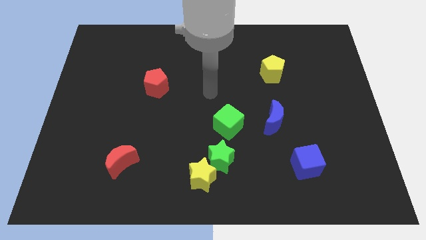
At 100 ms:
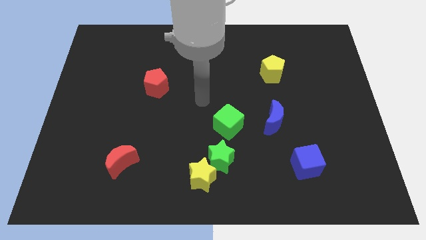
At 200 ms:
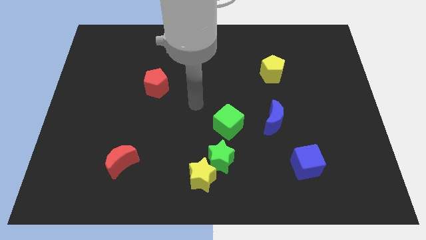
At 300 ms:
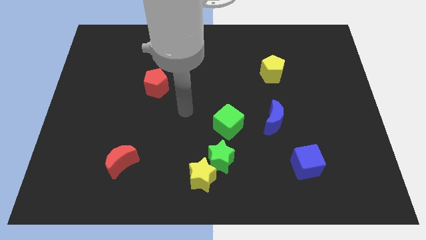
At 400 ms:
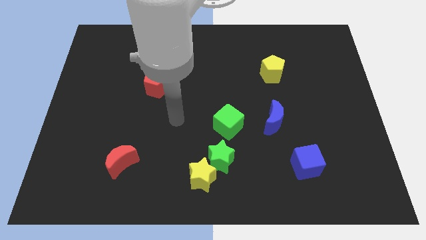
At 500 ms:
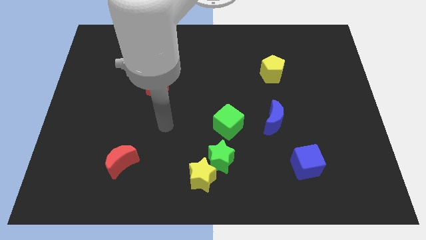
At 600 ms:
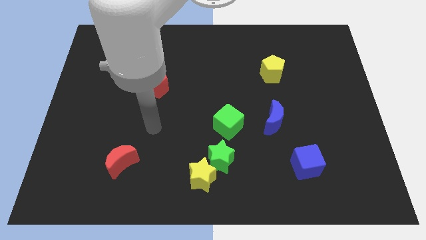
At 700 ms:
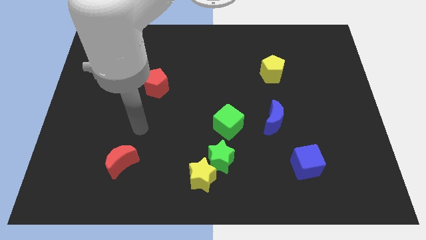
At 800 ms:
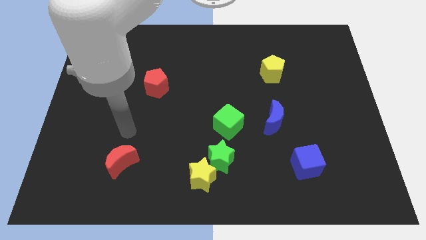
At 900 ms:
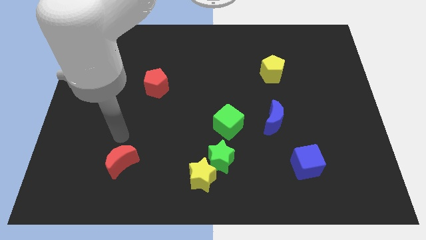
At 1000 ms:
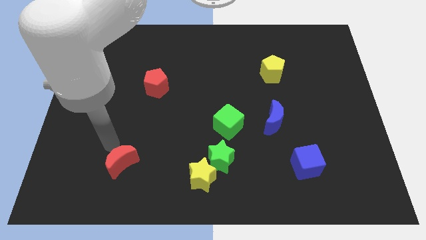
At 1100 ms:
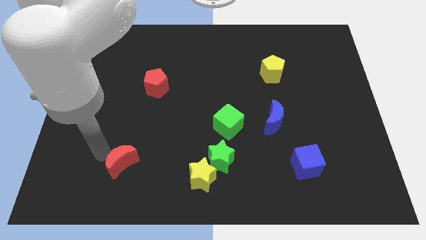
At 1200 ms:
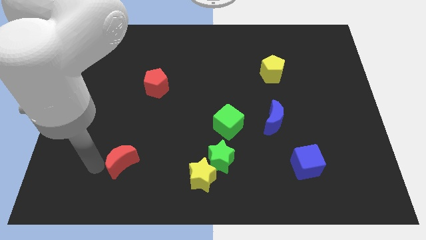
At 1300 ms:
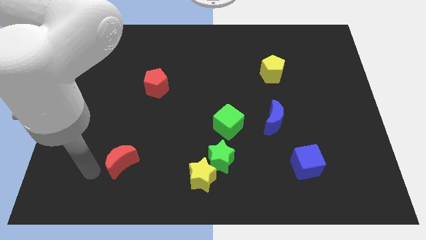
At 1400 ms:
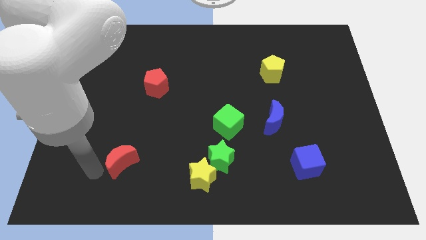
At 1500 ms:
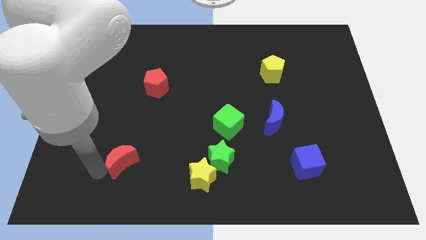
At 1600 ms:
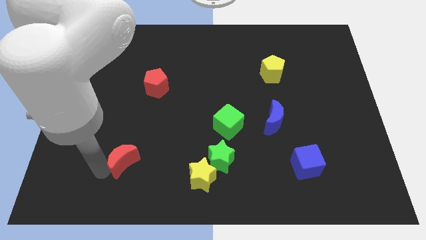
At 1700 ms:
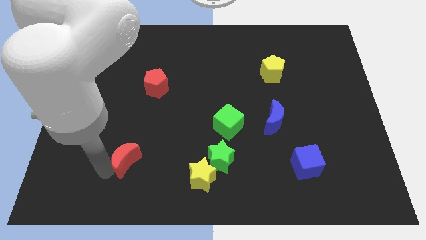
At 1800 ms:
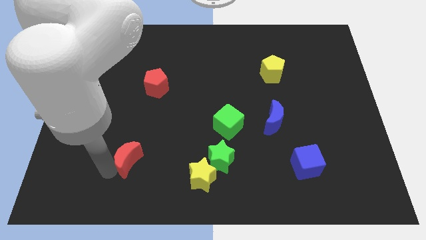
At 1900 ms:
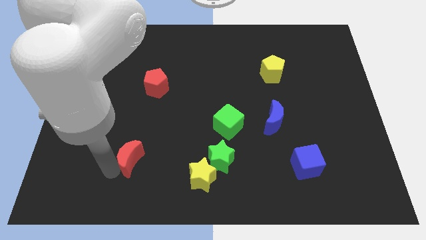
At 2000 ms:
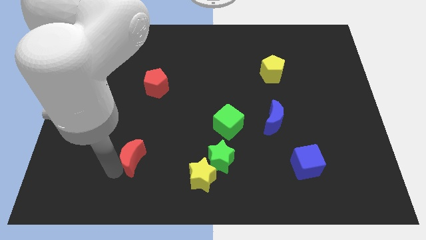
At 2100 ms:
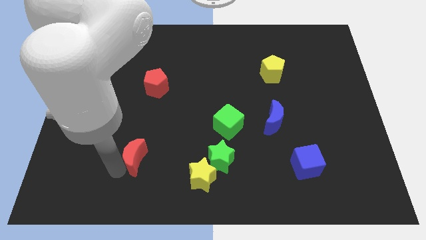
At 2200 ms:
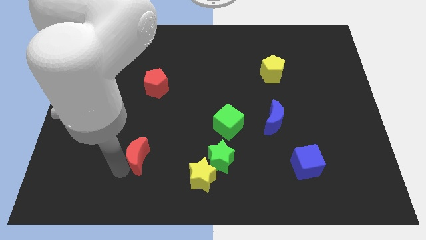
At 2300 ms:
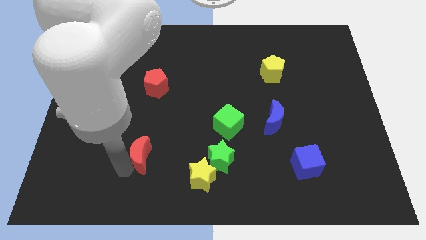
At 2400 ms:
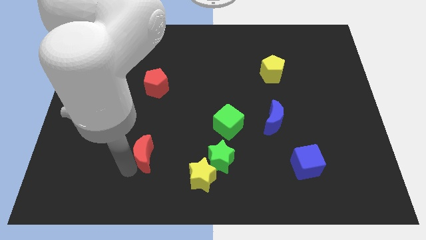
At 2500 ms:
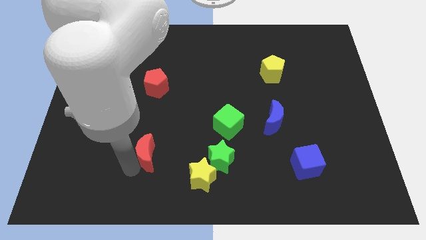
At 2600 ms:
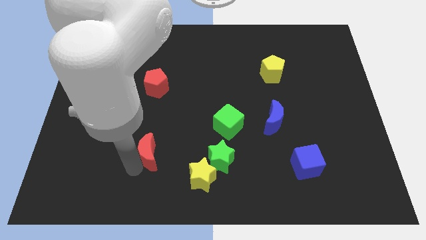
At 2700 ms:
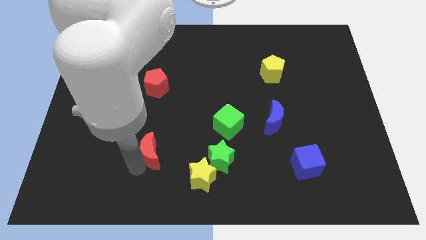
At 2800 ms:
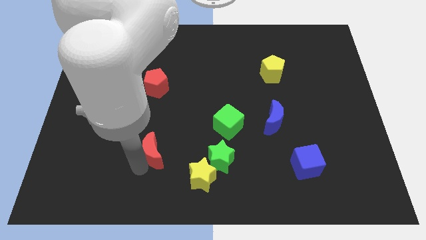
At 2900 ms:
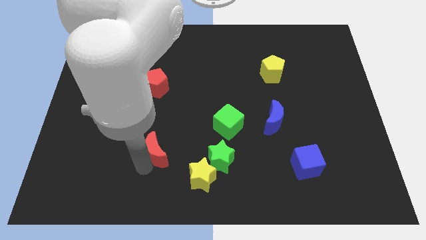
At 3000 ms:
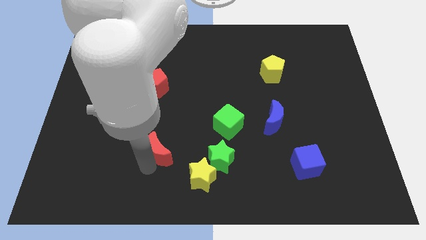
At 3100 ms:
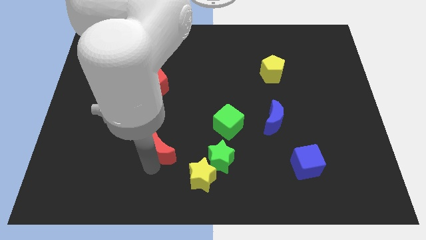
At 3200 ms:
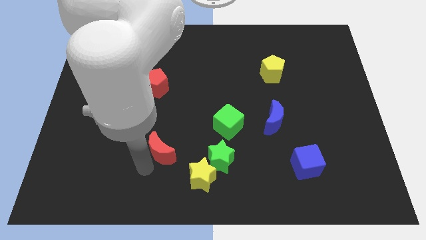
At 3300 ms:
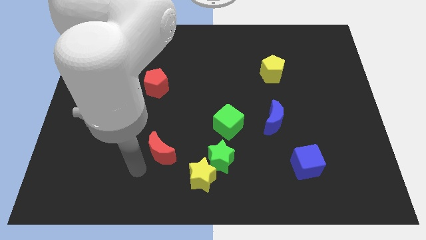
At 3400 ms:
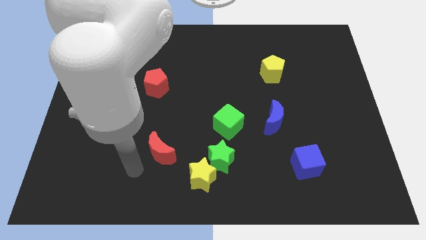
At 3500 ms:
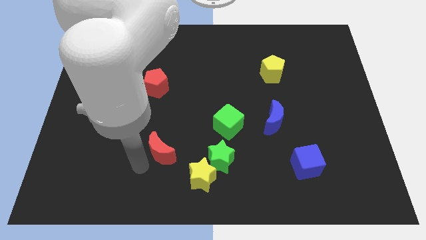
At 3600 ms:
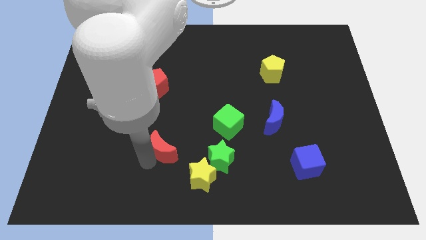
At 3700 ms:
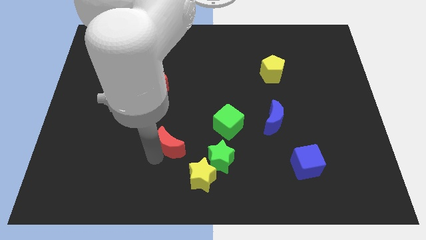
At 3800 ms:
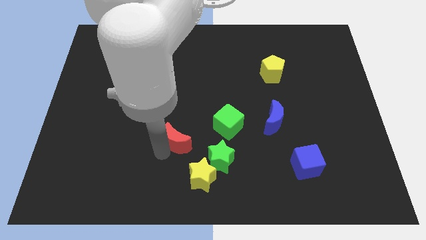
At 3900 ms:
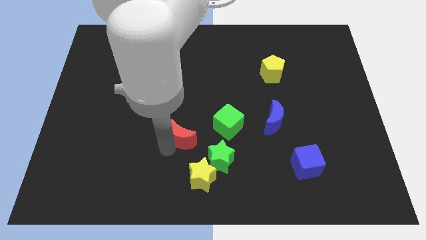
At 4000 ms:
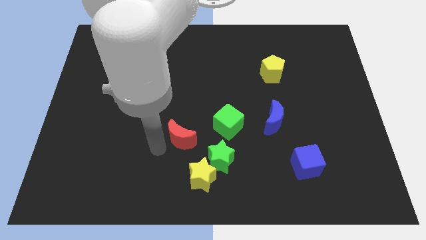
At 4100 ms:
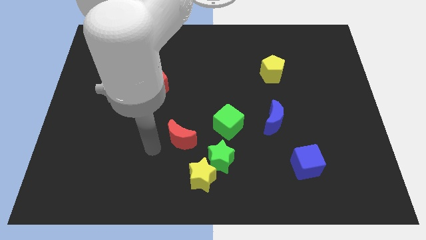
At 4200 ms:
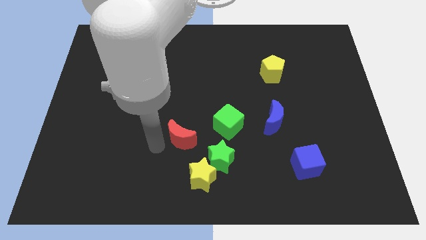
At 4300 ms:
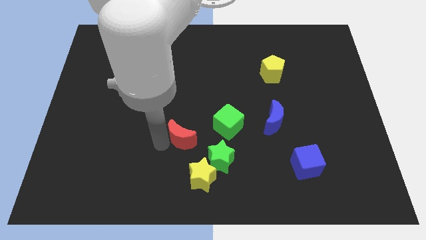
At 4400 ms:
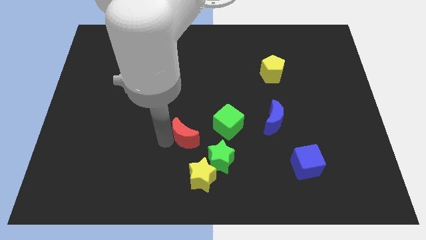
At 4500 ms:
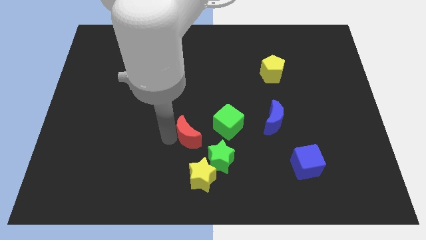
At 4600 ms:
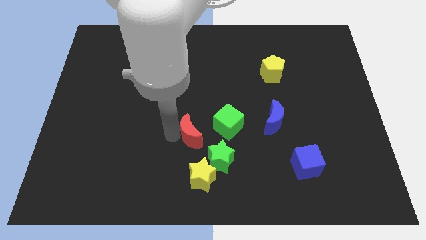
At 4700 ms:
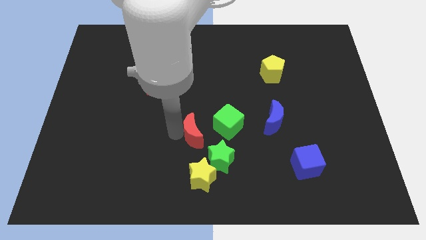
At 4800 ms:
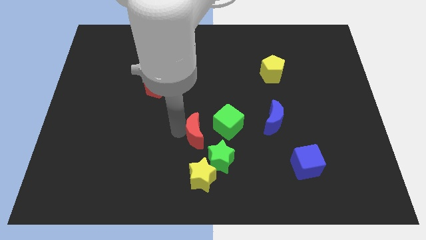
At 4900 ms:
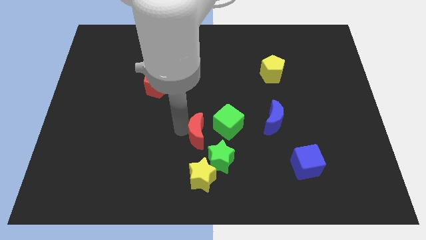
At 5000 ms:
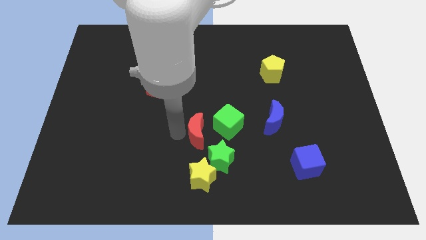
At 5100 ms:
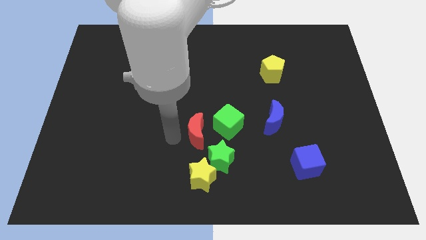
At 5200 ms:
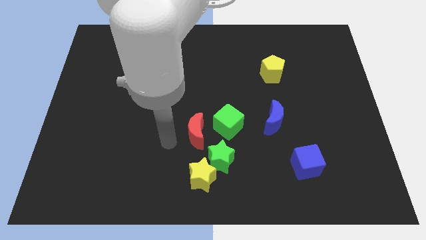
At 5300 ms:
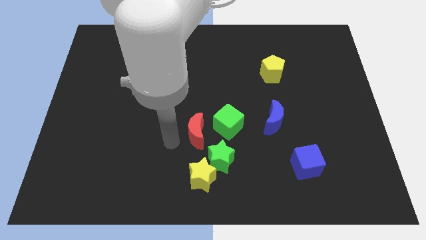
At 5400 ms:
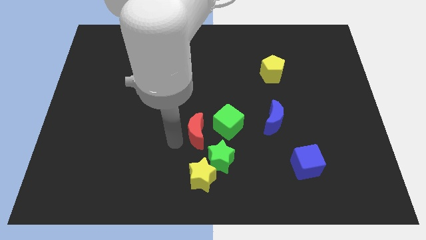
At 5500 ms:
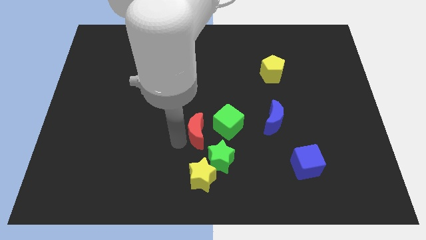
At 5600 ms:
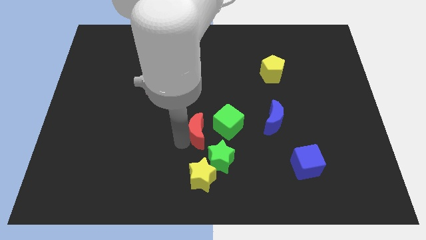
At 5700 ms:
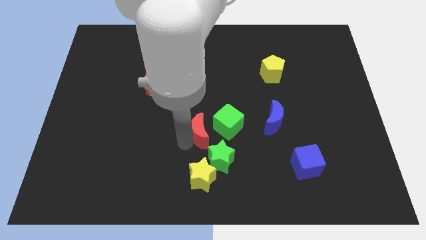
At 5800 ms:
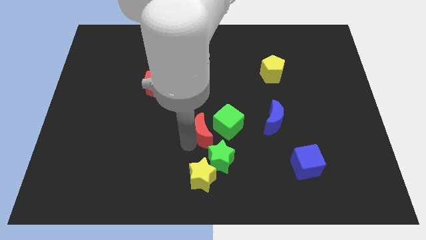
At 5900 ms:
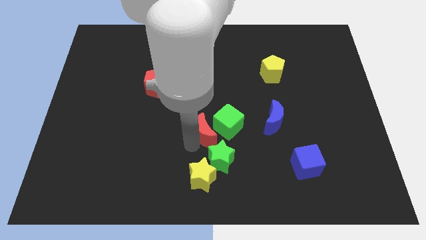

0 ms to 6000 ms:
move the red moon next to the green cube

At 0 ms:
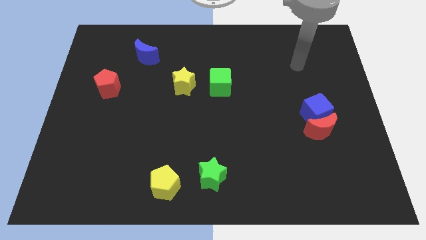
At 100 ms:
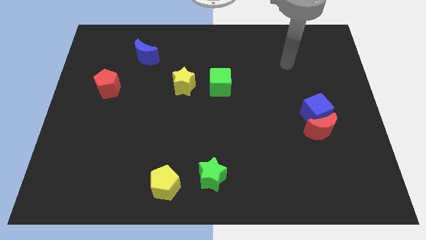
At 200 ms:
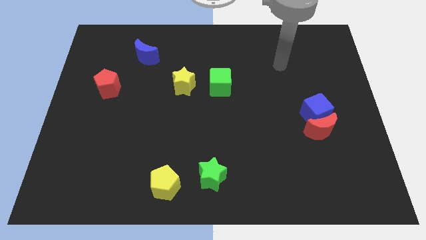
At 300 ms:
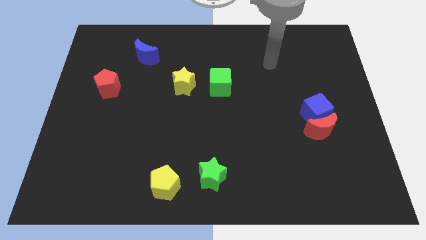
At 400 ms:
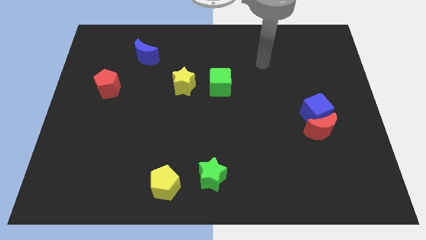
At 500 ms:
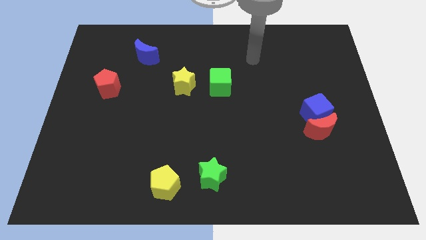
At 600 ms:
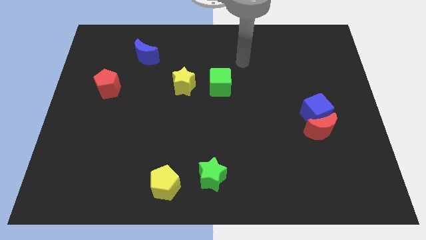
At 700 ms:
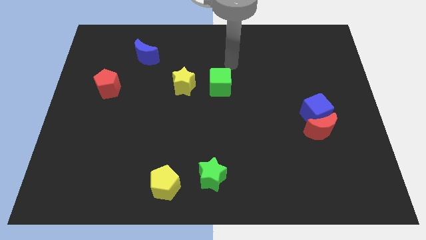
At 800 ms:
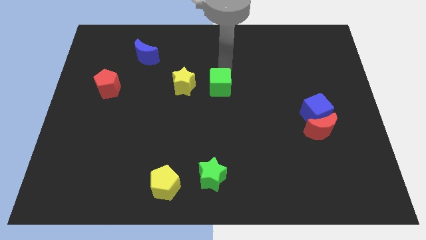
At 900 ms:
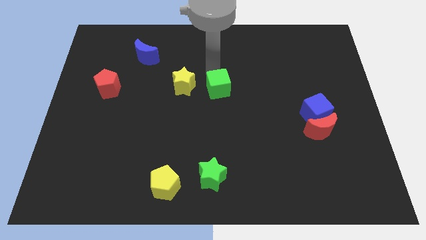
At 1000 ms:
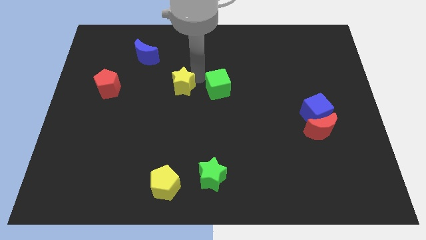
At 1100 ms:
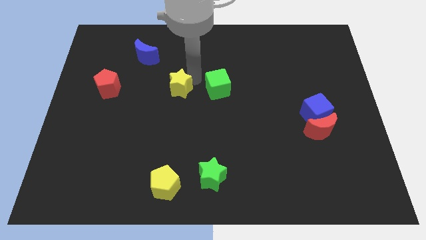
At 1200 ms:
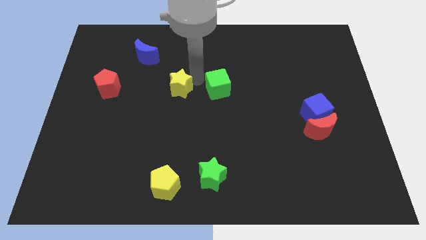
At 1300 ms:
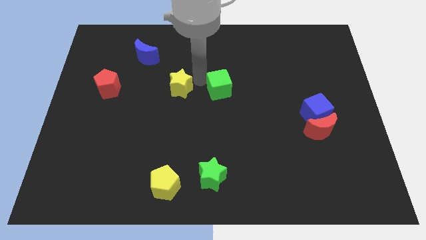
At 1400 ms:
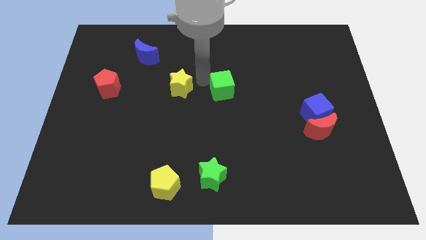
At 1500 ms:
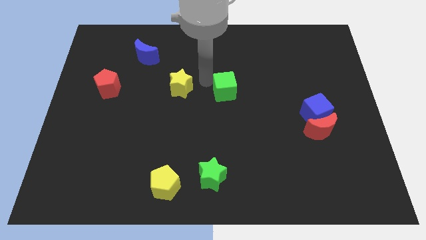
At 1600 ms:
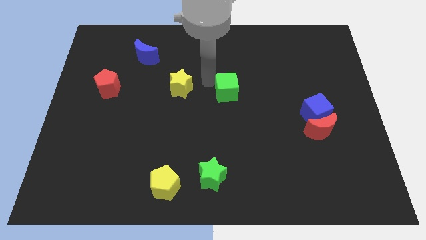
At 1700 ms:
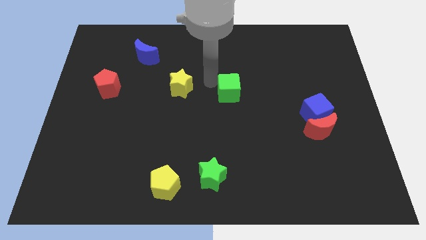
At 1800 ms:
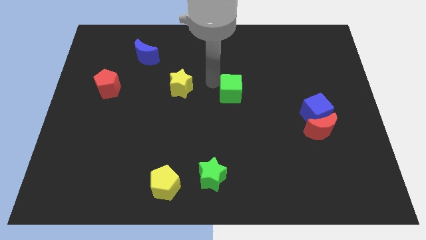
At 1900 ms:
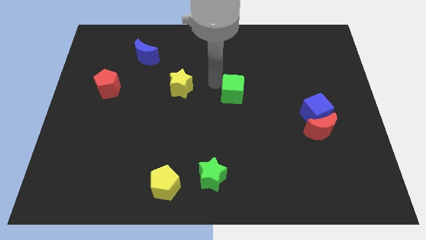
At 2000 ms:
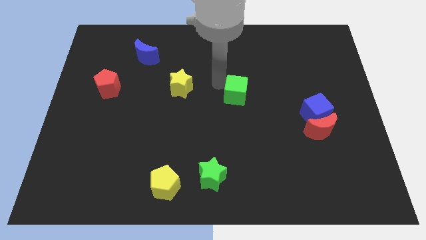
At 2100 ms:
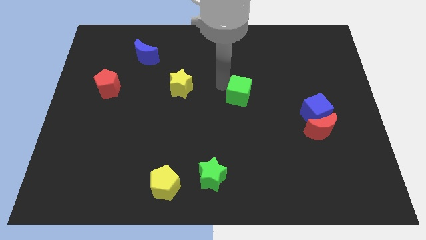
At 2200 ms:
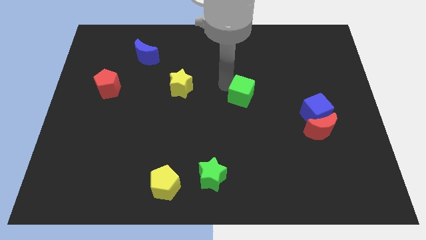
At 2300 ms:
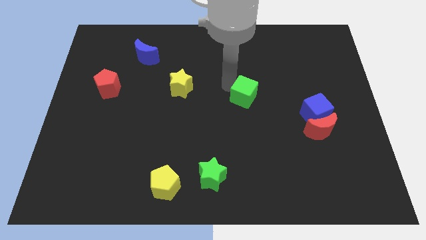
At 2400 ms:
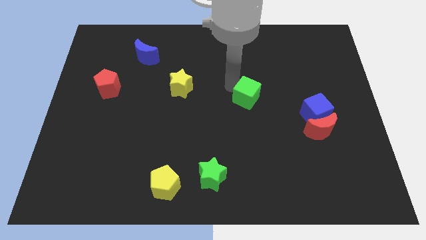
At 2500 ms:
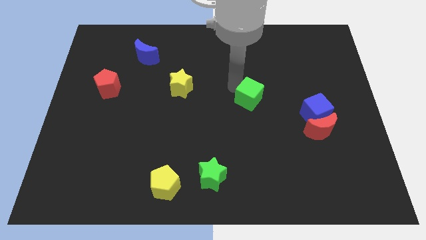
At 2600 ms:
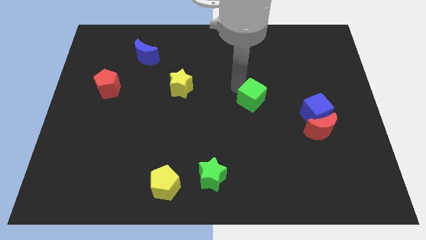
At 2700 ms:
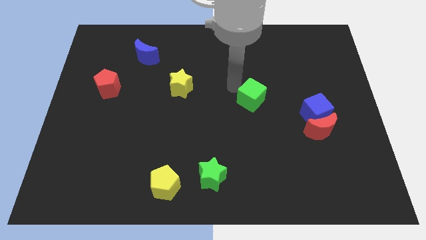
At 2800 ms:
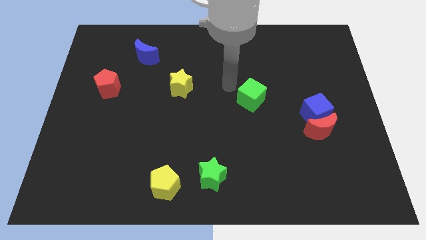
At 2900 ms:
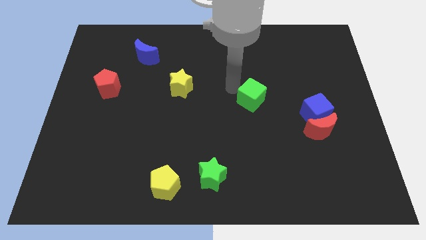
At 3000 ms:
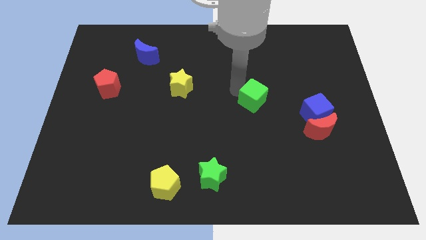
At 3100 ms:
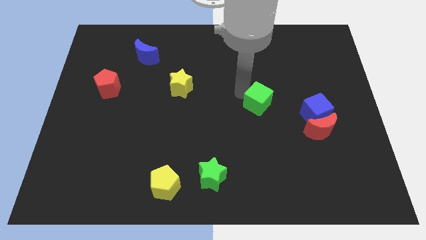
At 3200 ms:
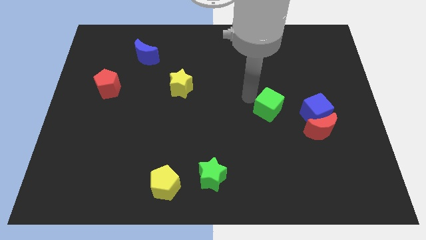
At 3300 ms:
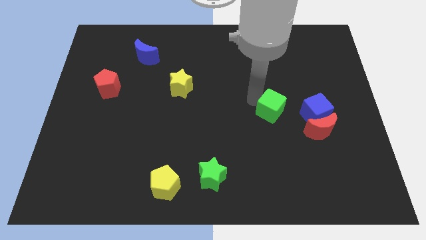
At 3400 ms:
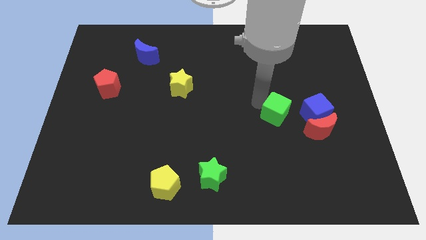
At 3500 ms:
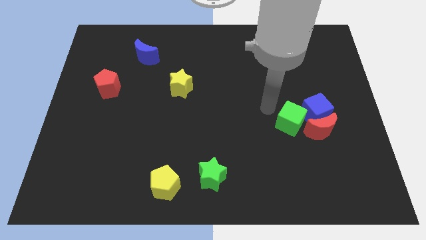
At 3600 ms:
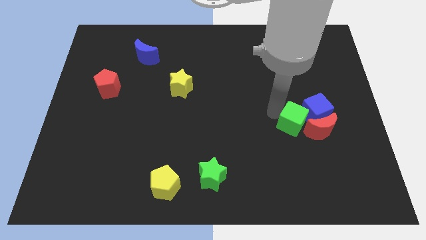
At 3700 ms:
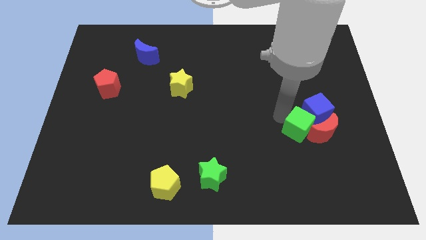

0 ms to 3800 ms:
move the green cube towards the red moon
